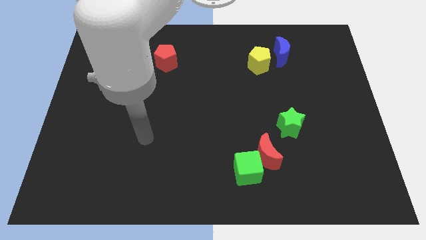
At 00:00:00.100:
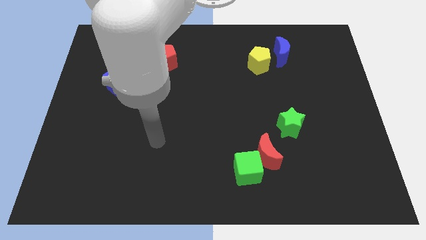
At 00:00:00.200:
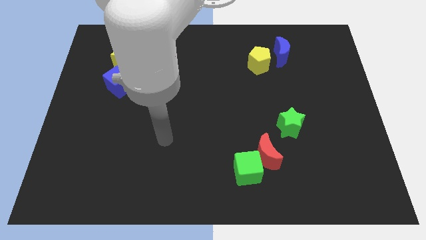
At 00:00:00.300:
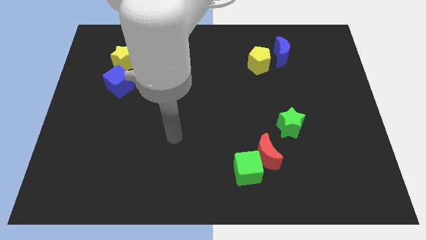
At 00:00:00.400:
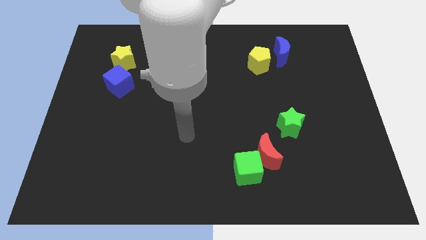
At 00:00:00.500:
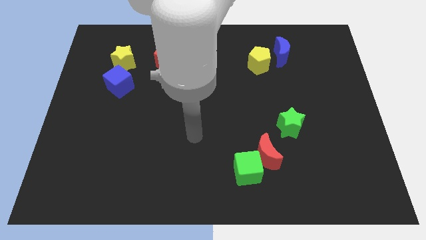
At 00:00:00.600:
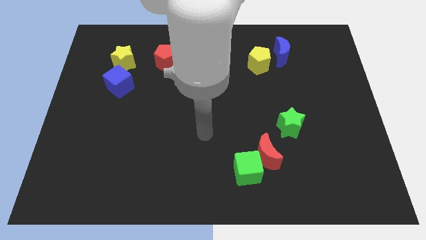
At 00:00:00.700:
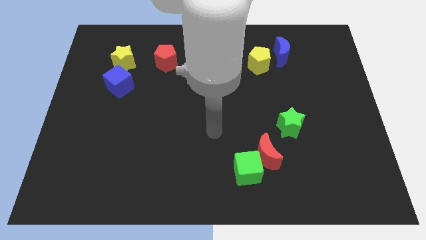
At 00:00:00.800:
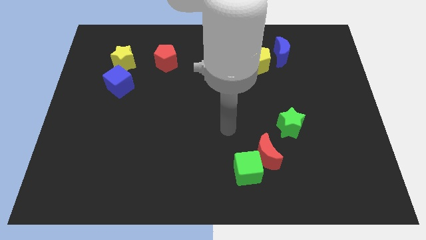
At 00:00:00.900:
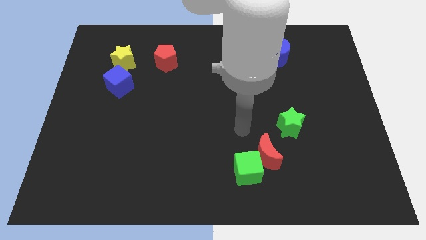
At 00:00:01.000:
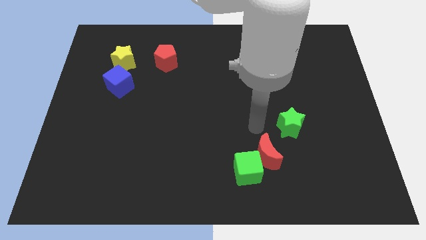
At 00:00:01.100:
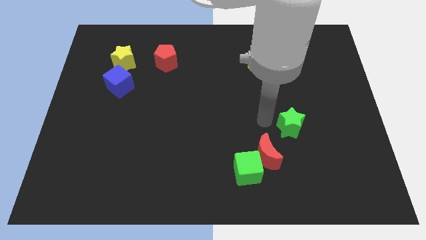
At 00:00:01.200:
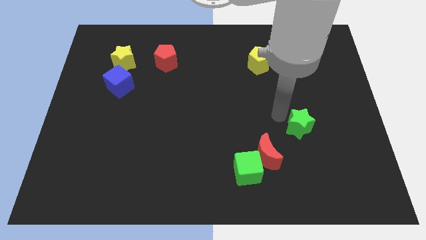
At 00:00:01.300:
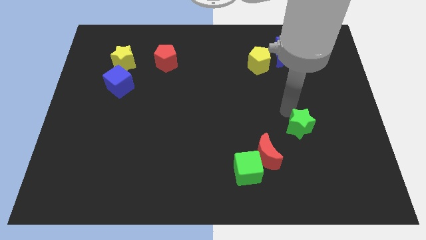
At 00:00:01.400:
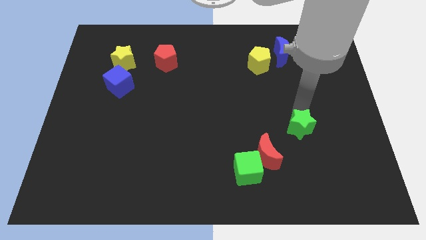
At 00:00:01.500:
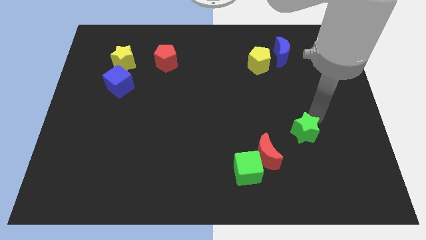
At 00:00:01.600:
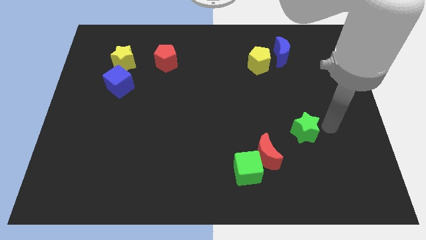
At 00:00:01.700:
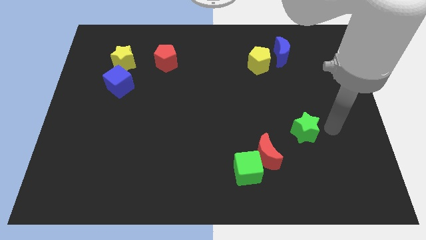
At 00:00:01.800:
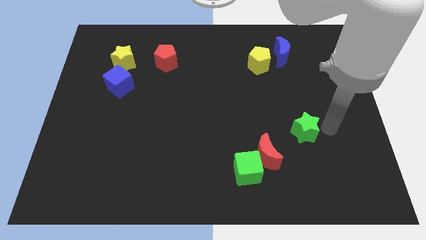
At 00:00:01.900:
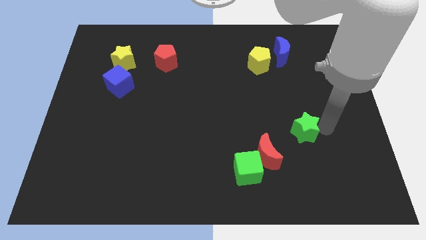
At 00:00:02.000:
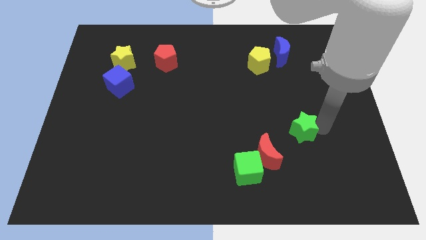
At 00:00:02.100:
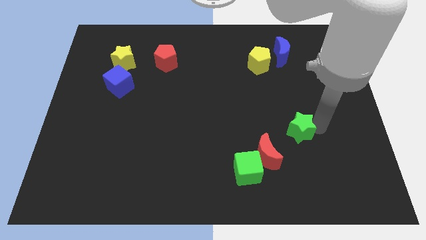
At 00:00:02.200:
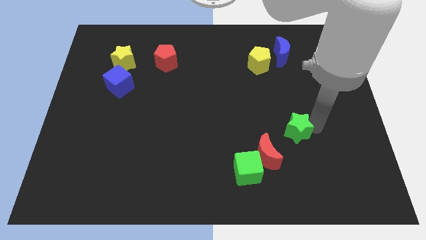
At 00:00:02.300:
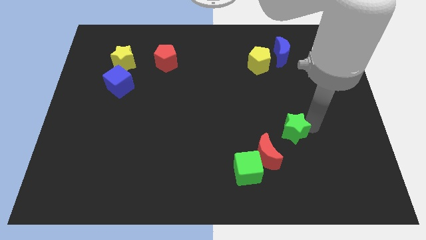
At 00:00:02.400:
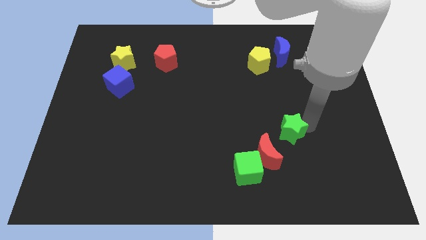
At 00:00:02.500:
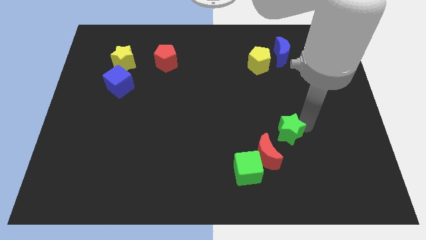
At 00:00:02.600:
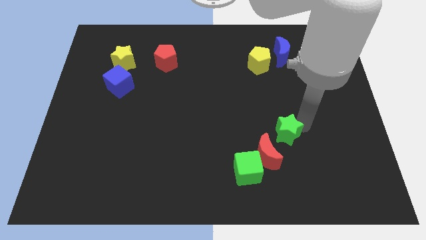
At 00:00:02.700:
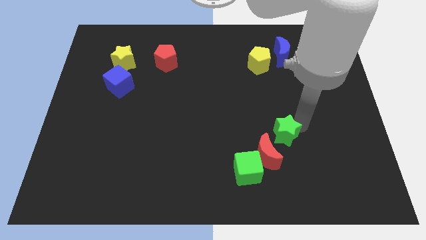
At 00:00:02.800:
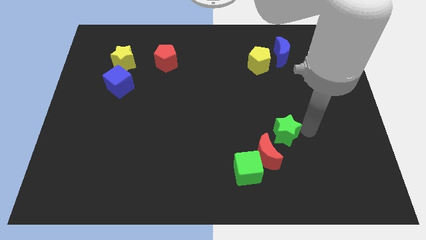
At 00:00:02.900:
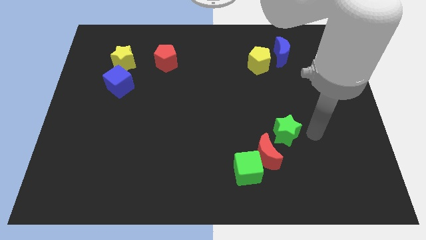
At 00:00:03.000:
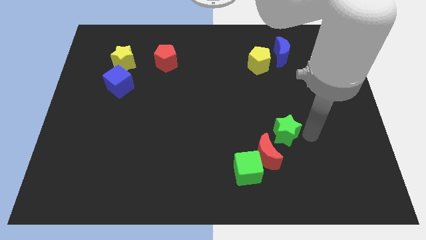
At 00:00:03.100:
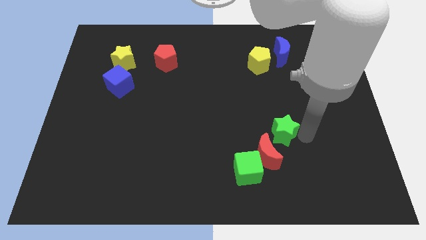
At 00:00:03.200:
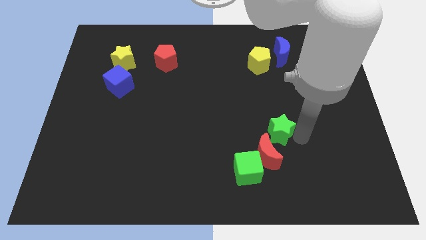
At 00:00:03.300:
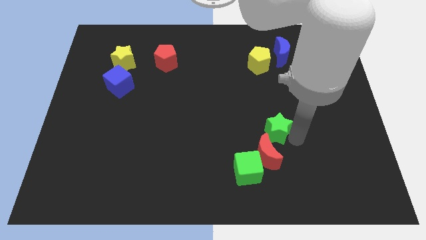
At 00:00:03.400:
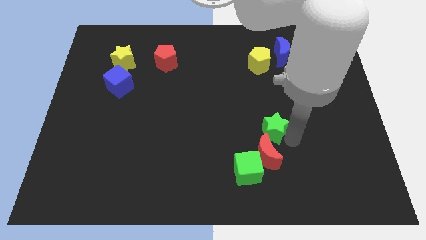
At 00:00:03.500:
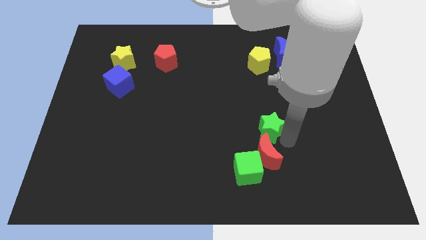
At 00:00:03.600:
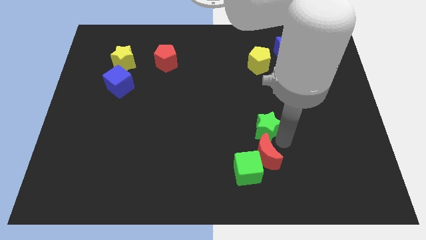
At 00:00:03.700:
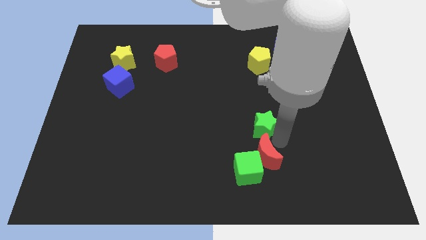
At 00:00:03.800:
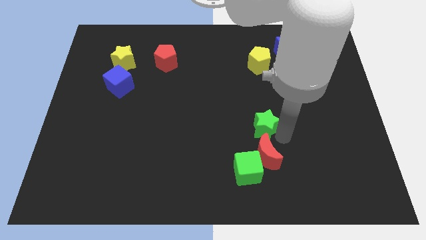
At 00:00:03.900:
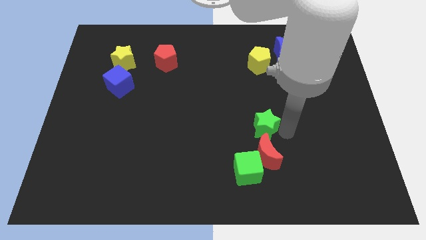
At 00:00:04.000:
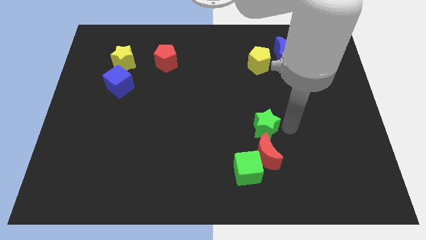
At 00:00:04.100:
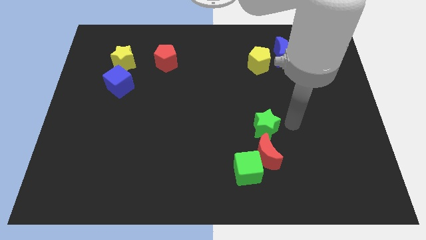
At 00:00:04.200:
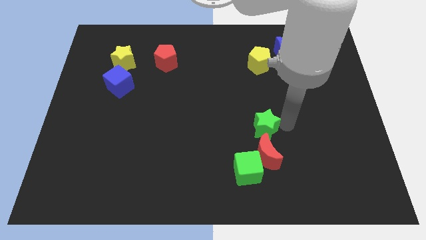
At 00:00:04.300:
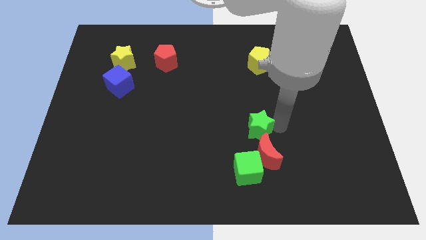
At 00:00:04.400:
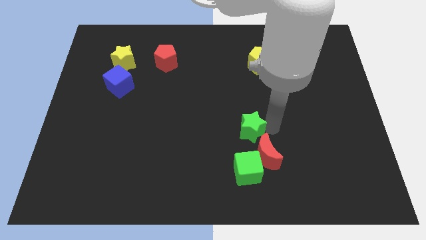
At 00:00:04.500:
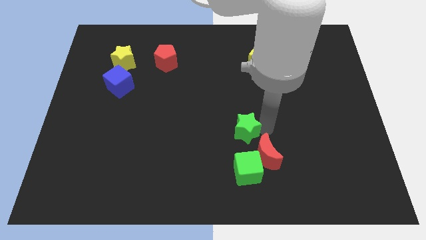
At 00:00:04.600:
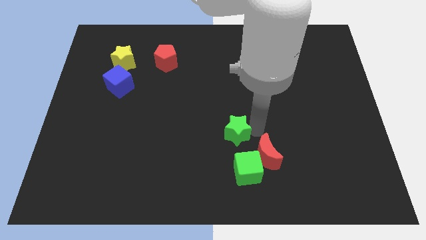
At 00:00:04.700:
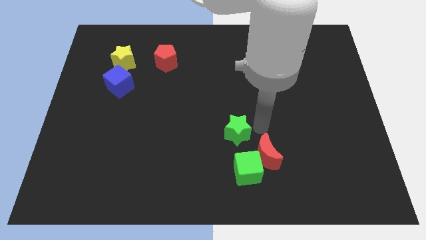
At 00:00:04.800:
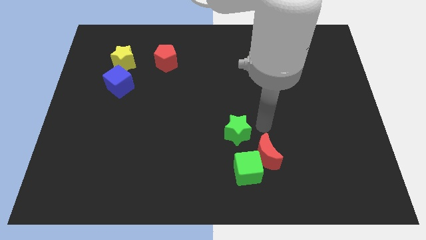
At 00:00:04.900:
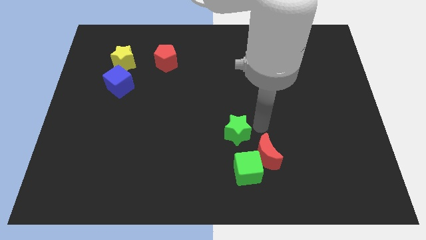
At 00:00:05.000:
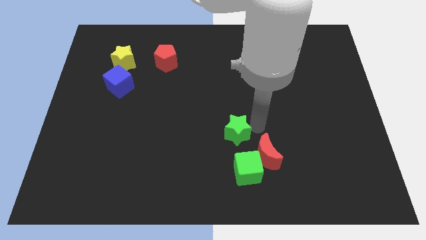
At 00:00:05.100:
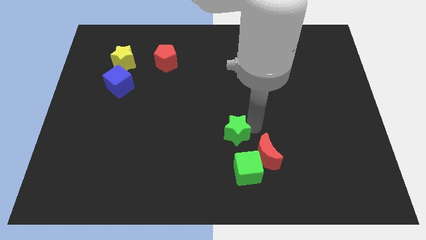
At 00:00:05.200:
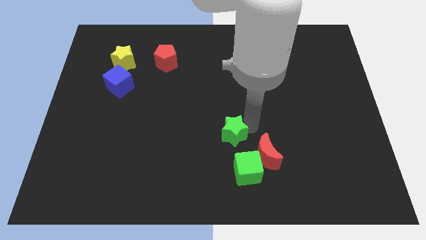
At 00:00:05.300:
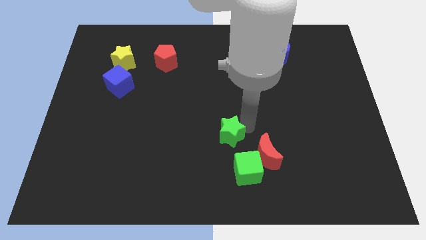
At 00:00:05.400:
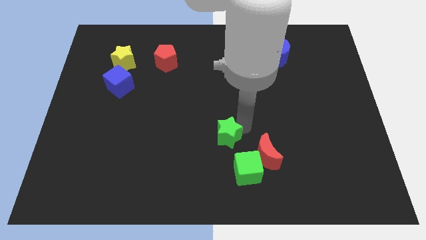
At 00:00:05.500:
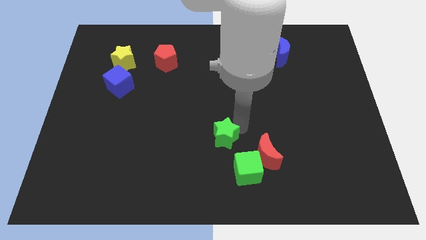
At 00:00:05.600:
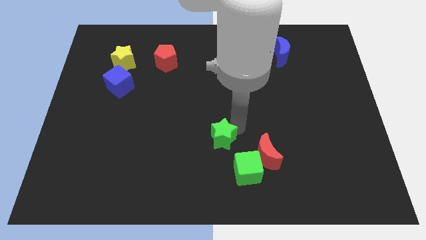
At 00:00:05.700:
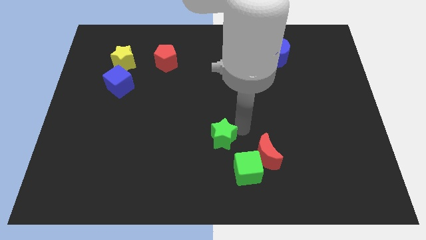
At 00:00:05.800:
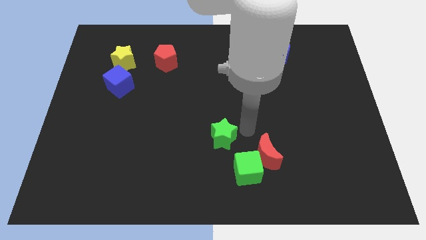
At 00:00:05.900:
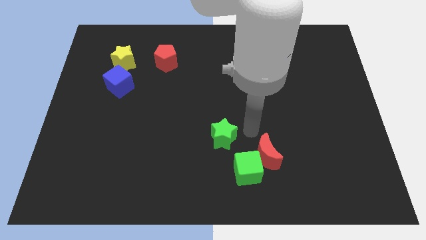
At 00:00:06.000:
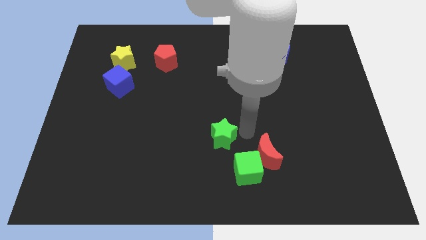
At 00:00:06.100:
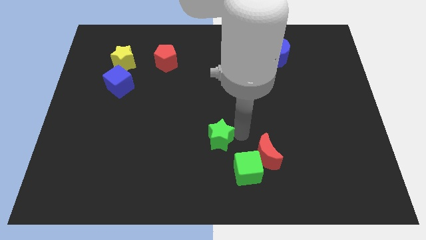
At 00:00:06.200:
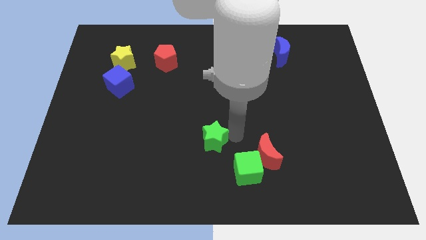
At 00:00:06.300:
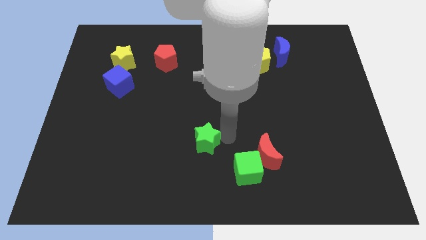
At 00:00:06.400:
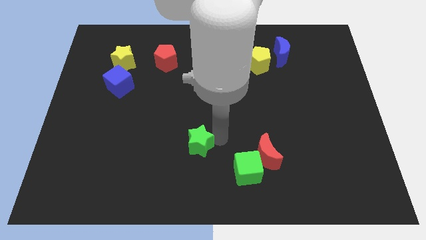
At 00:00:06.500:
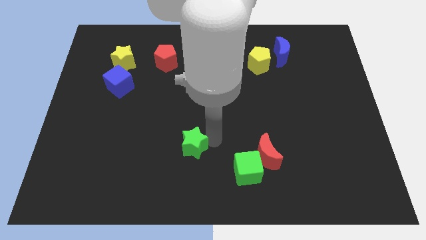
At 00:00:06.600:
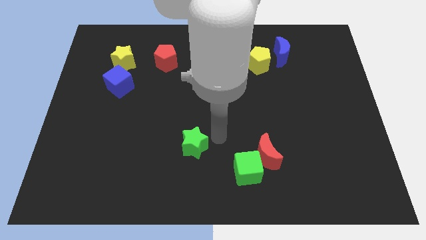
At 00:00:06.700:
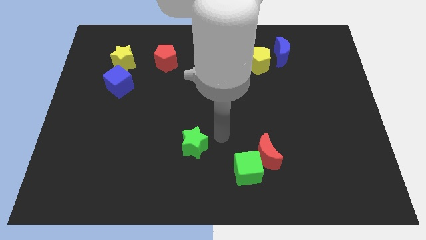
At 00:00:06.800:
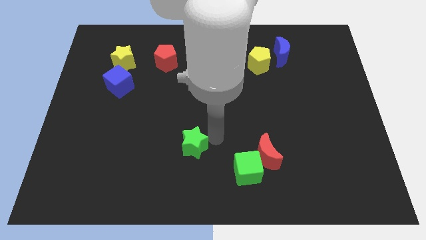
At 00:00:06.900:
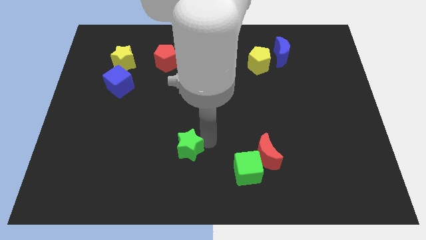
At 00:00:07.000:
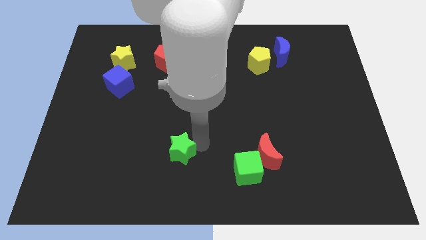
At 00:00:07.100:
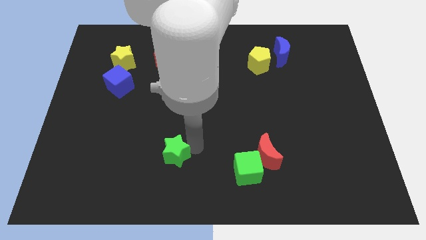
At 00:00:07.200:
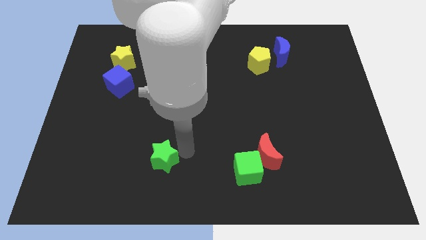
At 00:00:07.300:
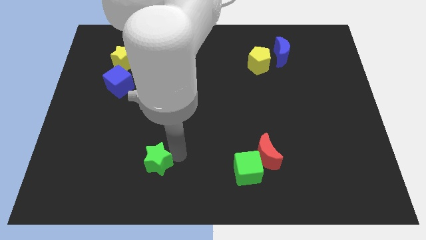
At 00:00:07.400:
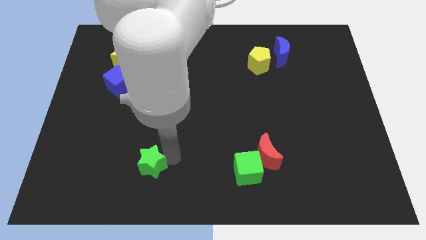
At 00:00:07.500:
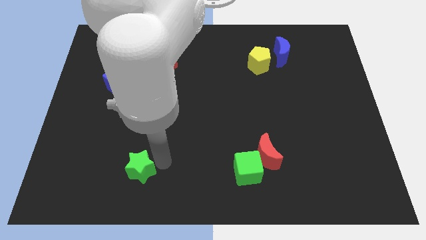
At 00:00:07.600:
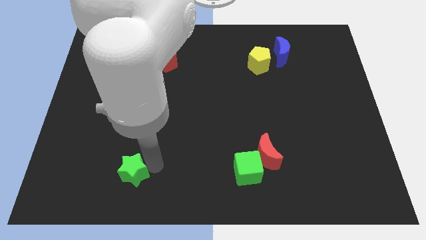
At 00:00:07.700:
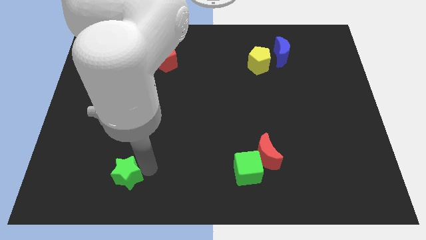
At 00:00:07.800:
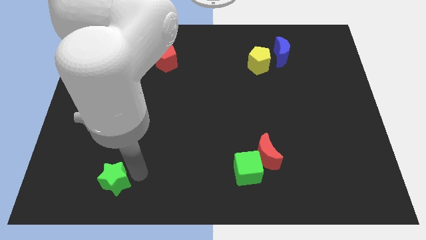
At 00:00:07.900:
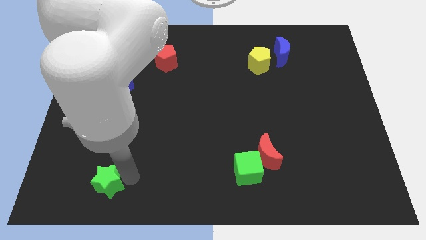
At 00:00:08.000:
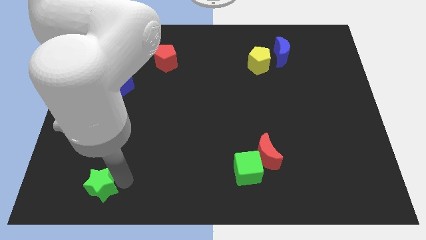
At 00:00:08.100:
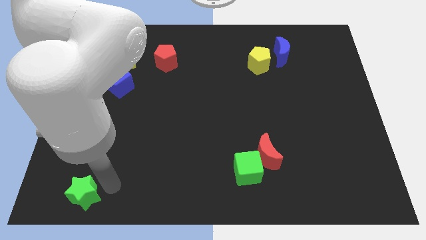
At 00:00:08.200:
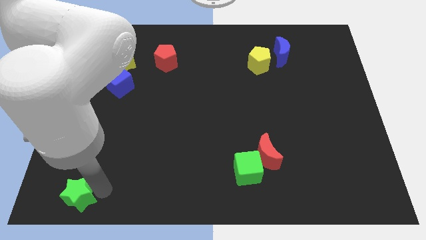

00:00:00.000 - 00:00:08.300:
push the green star to the bottom left
